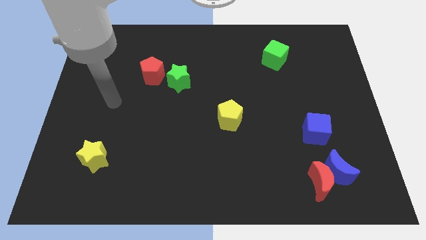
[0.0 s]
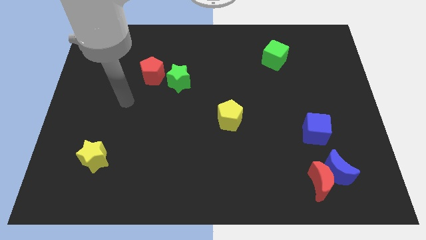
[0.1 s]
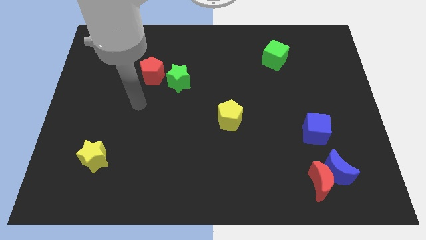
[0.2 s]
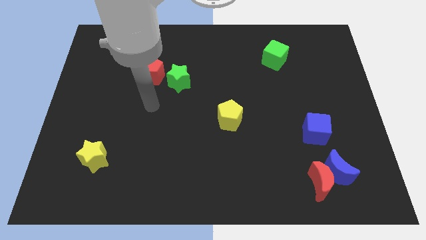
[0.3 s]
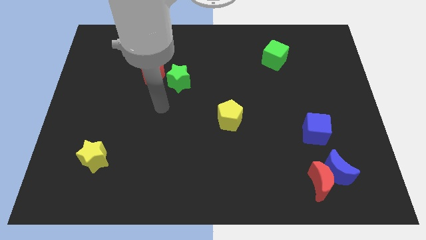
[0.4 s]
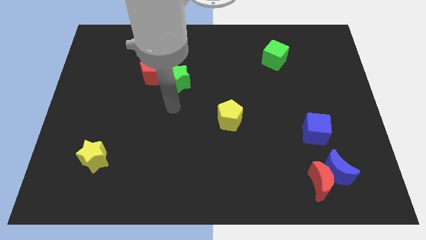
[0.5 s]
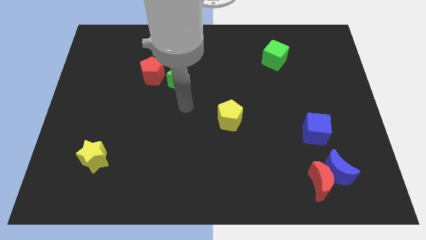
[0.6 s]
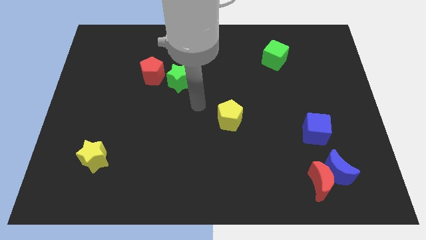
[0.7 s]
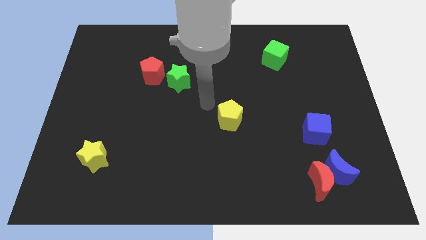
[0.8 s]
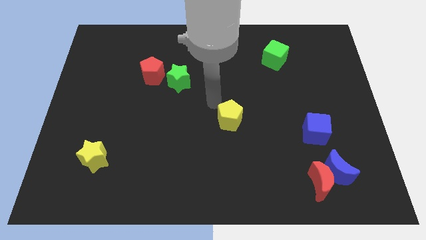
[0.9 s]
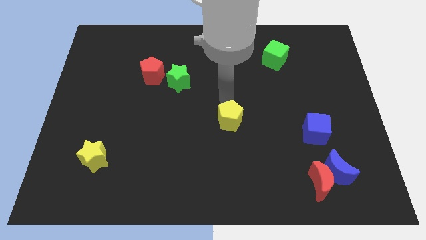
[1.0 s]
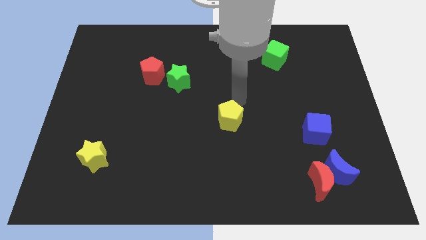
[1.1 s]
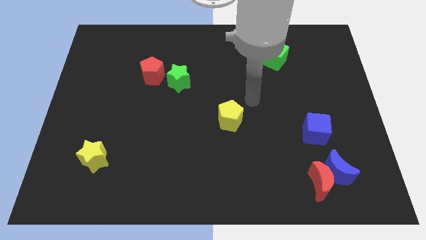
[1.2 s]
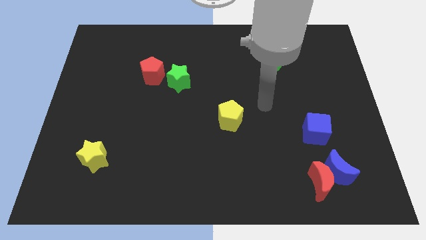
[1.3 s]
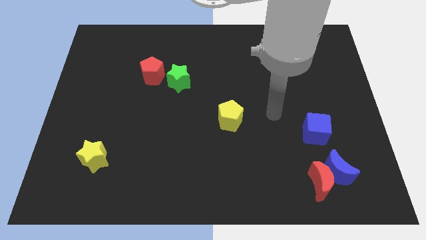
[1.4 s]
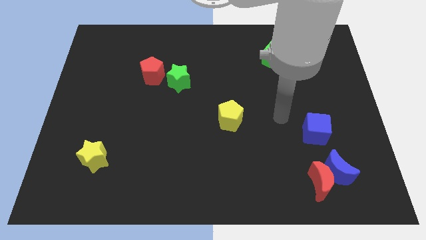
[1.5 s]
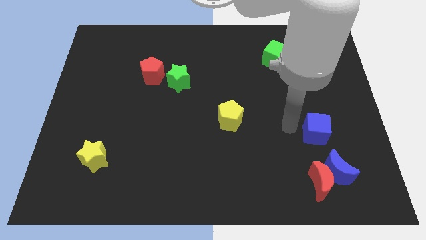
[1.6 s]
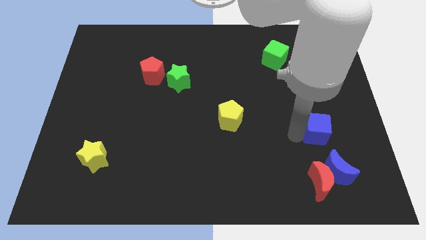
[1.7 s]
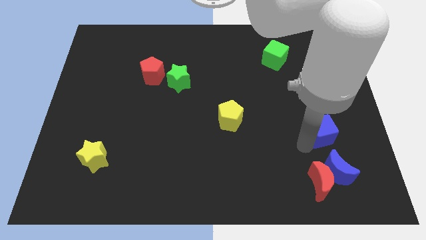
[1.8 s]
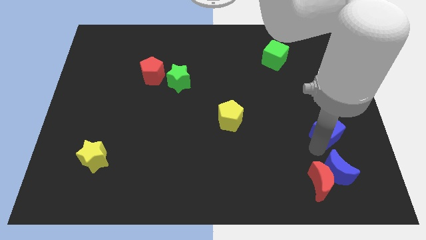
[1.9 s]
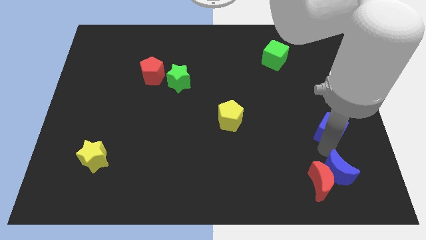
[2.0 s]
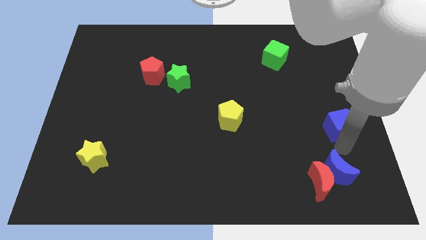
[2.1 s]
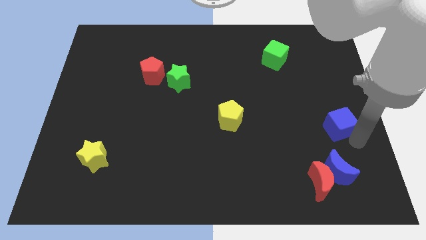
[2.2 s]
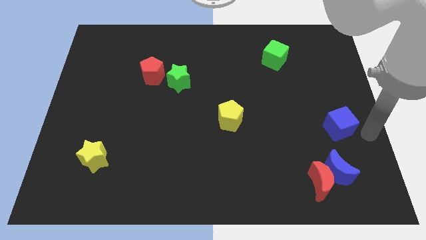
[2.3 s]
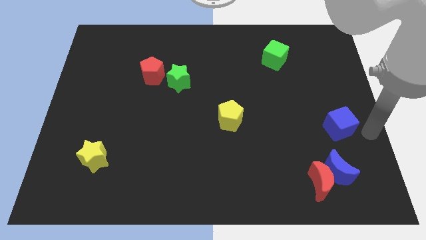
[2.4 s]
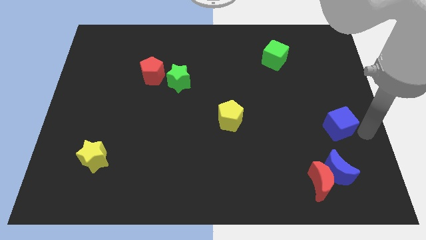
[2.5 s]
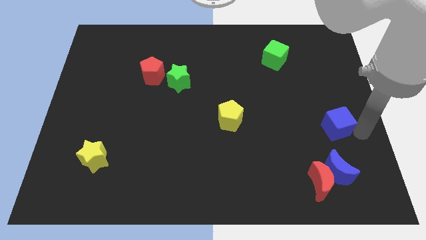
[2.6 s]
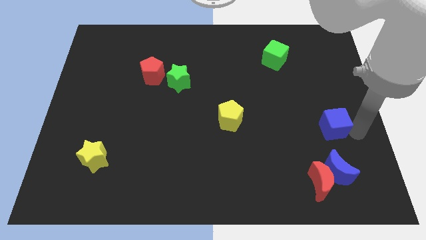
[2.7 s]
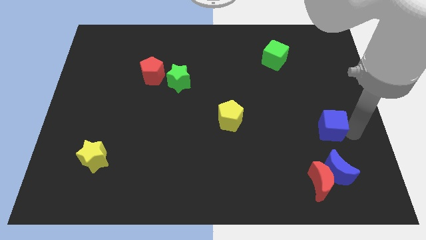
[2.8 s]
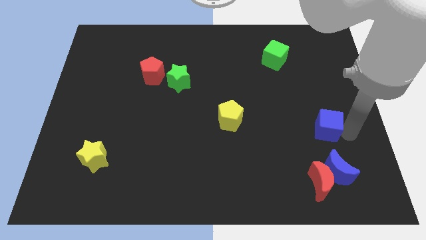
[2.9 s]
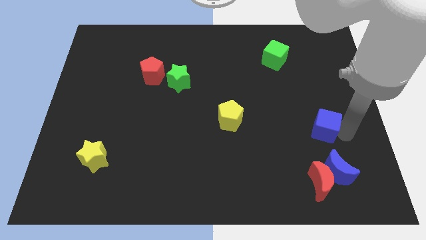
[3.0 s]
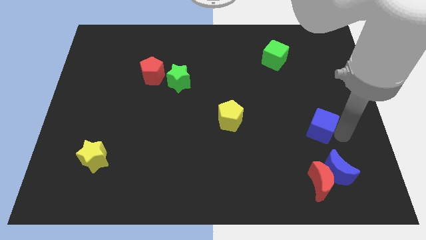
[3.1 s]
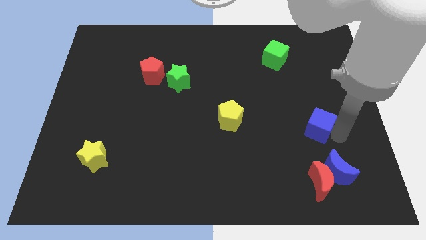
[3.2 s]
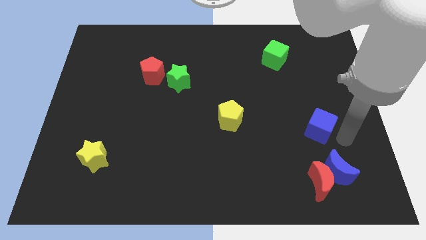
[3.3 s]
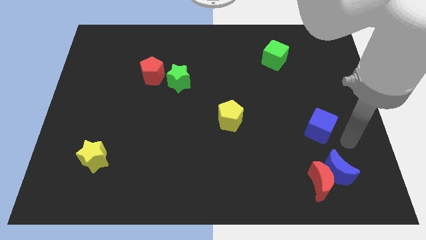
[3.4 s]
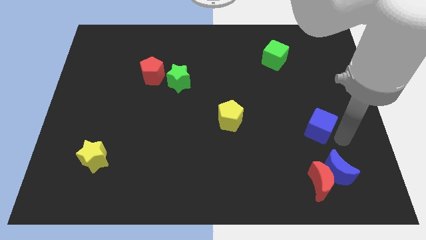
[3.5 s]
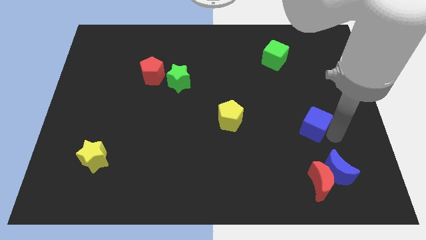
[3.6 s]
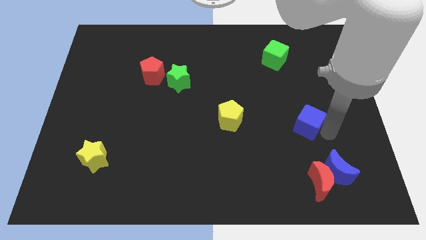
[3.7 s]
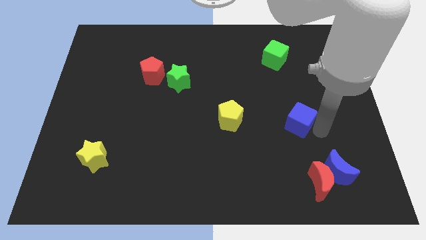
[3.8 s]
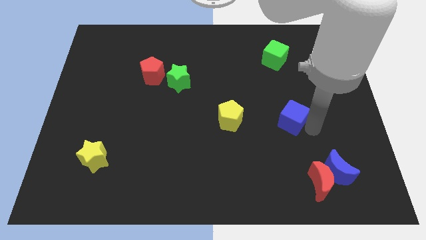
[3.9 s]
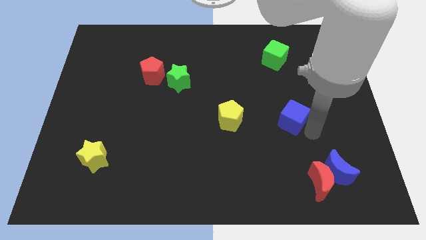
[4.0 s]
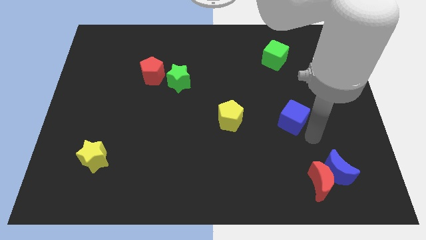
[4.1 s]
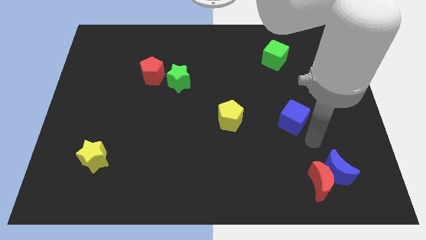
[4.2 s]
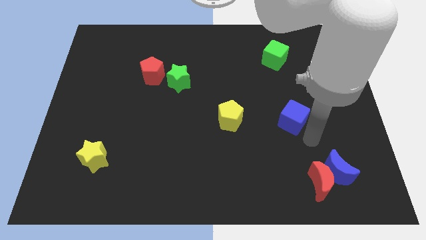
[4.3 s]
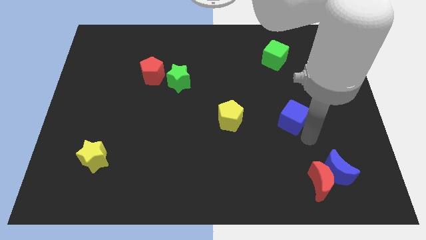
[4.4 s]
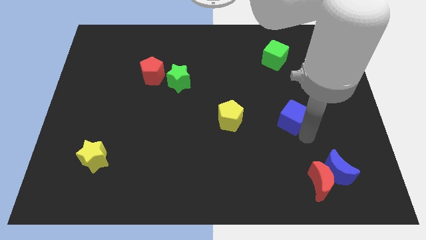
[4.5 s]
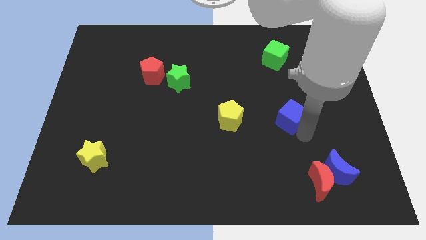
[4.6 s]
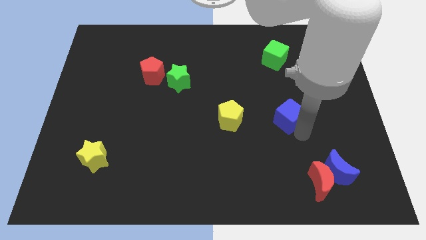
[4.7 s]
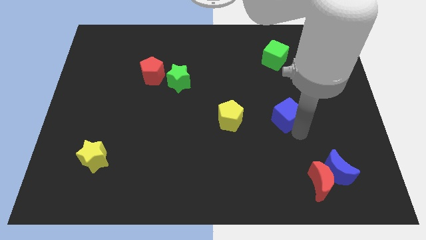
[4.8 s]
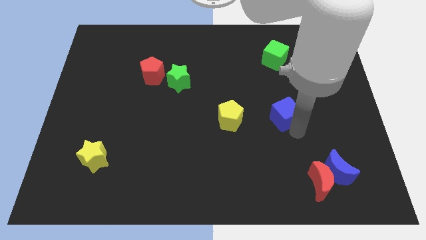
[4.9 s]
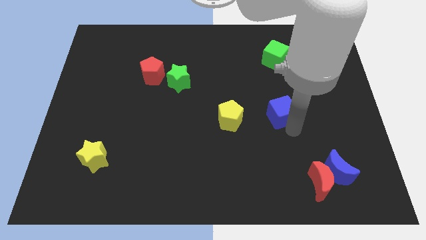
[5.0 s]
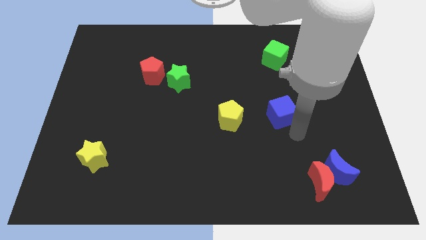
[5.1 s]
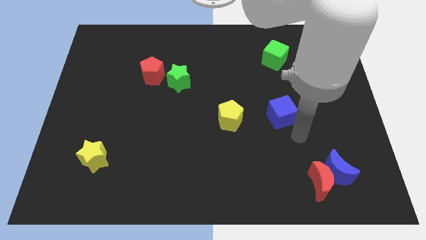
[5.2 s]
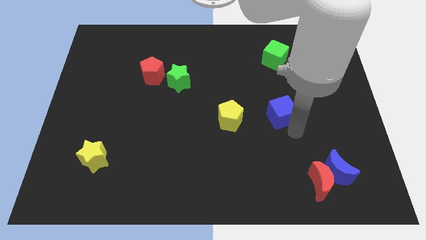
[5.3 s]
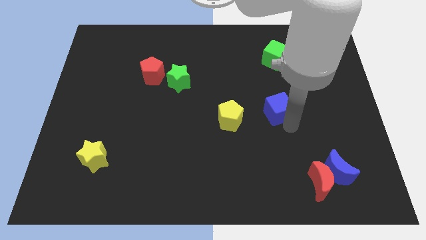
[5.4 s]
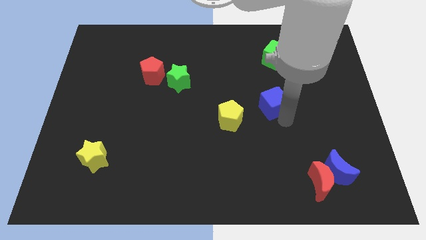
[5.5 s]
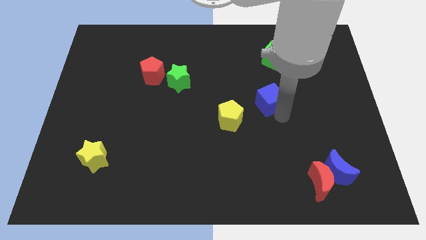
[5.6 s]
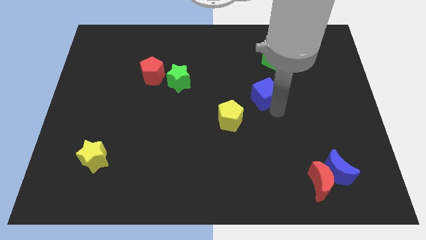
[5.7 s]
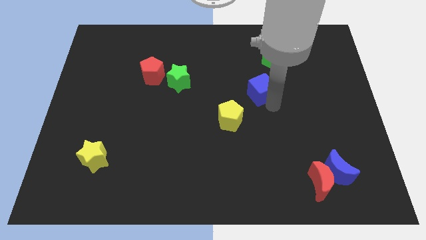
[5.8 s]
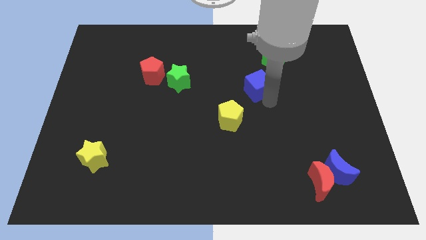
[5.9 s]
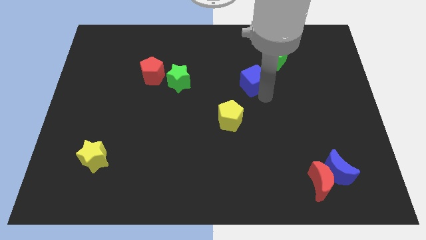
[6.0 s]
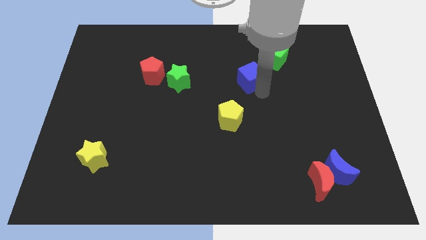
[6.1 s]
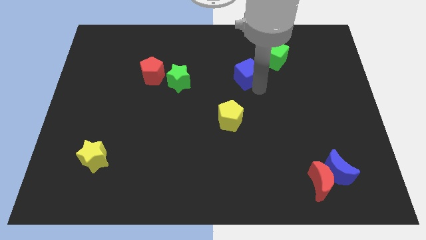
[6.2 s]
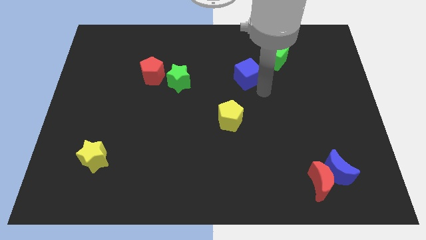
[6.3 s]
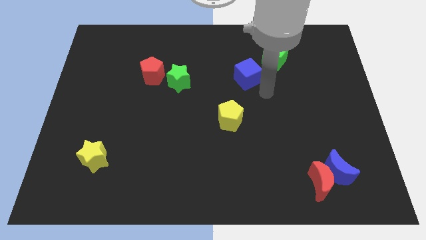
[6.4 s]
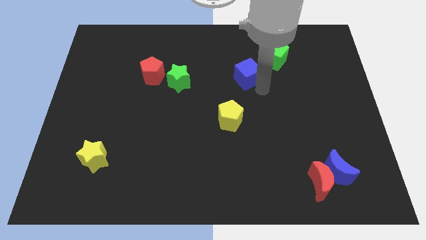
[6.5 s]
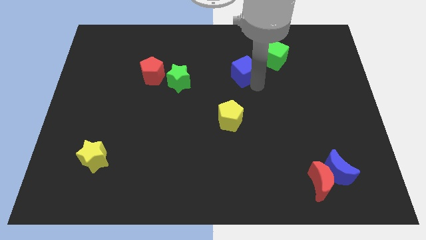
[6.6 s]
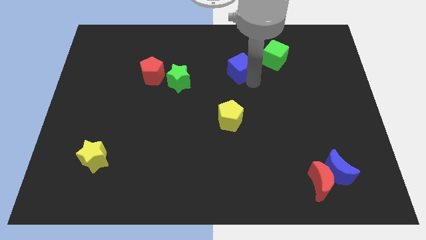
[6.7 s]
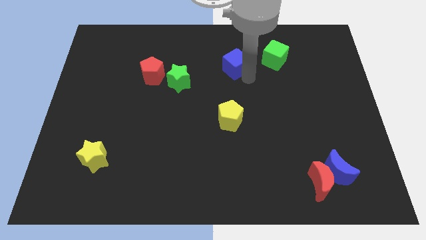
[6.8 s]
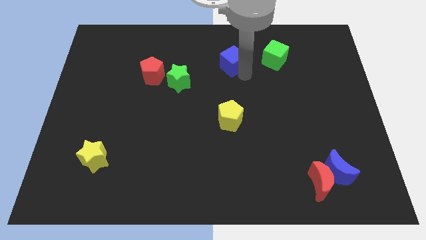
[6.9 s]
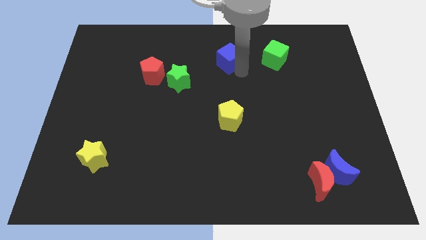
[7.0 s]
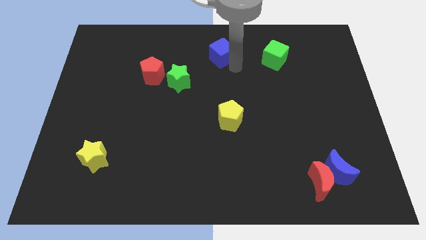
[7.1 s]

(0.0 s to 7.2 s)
put the blue cube to the top
